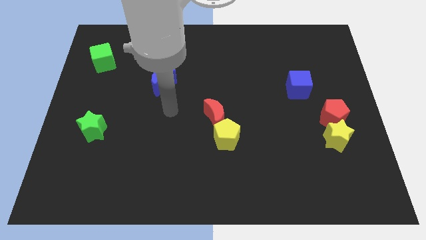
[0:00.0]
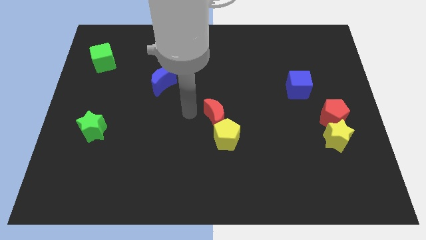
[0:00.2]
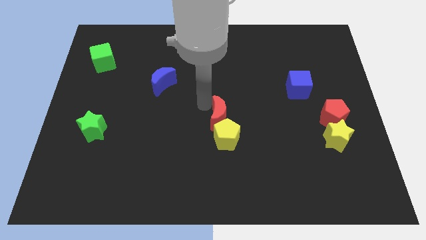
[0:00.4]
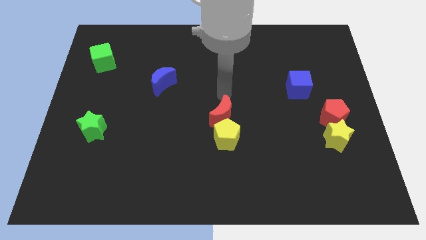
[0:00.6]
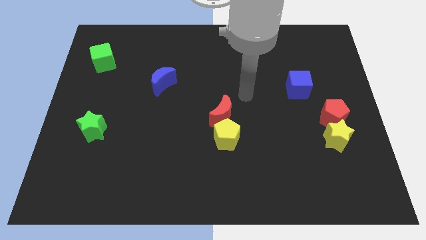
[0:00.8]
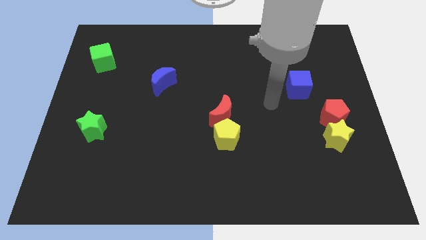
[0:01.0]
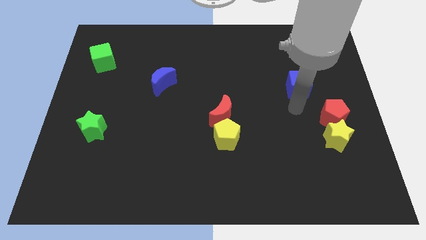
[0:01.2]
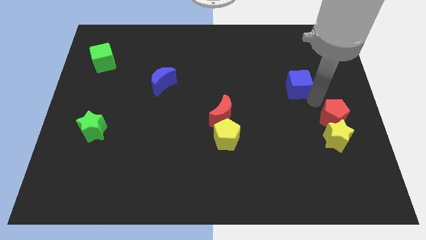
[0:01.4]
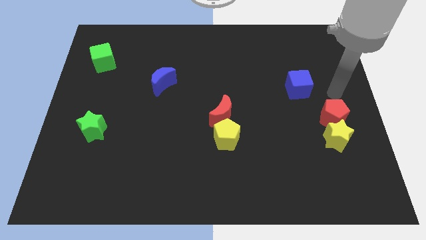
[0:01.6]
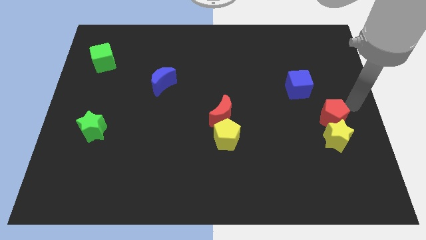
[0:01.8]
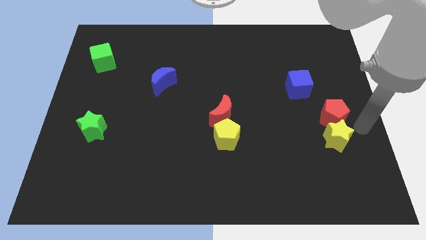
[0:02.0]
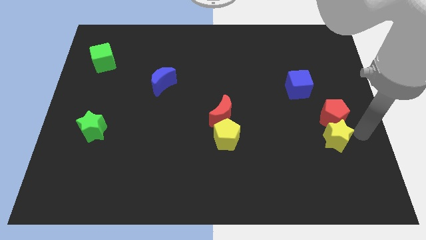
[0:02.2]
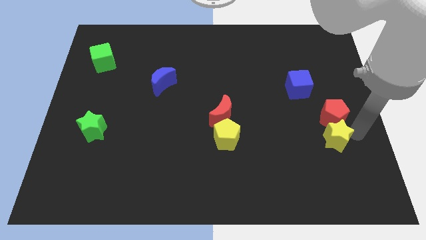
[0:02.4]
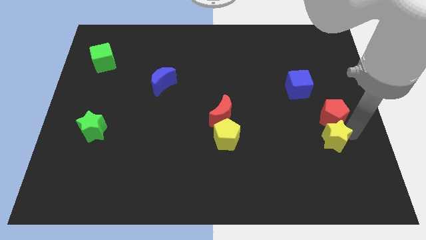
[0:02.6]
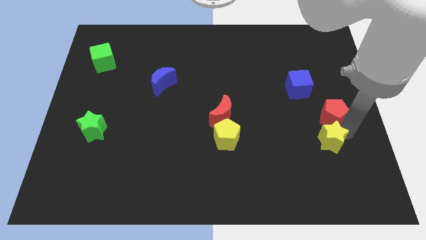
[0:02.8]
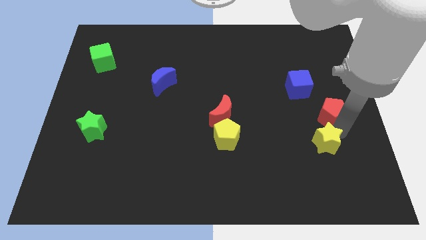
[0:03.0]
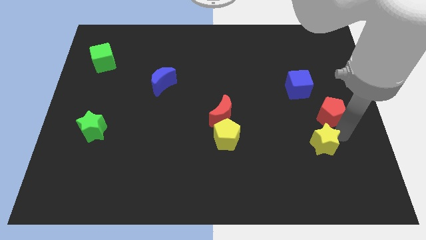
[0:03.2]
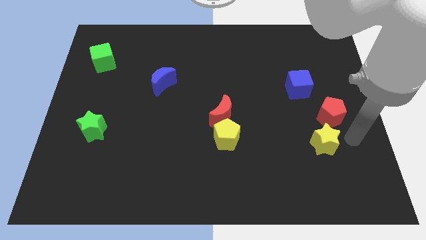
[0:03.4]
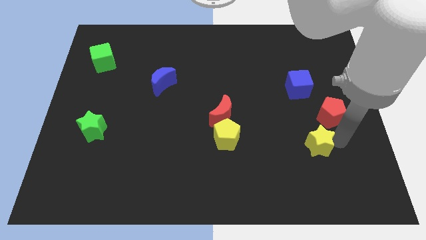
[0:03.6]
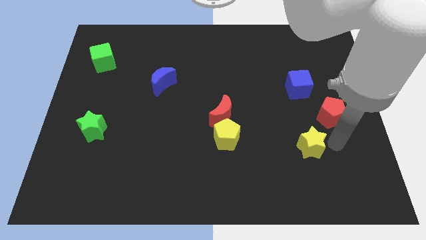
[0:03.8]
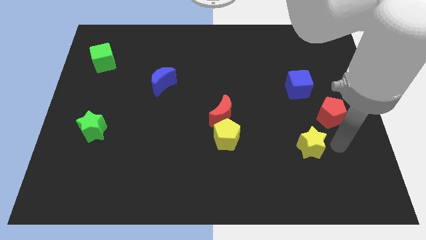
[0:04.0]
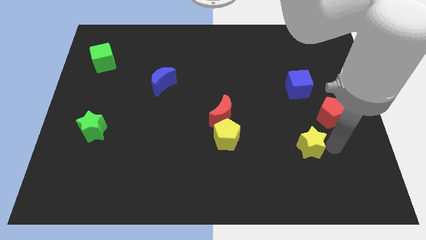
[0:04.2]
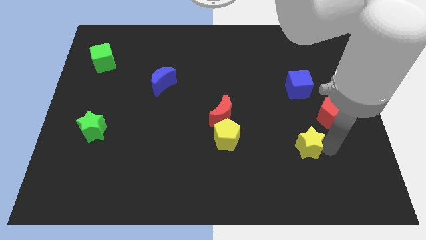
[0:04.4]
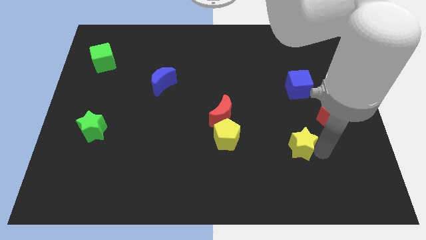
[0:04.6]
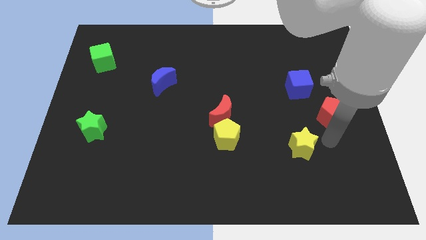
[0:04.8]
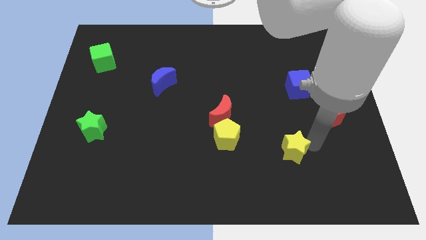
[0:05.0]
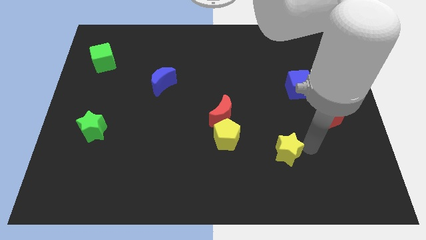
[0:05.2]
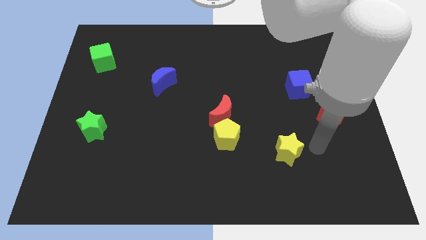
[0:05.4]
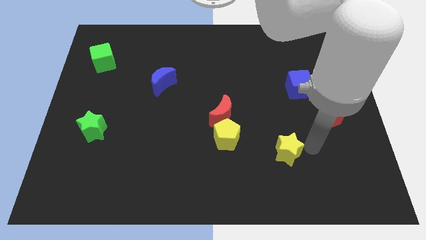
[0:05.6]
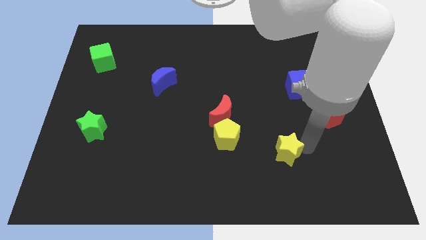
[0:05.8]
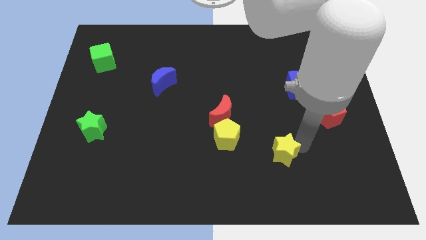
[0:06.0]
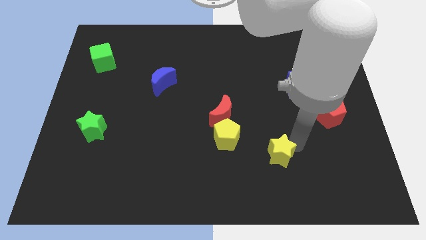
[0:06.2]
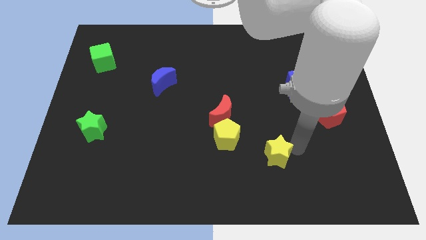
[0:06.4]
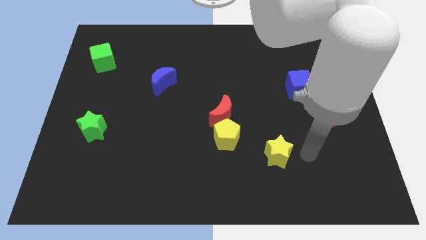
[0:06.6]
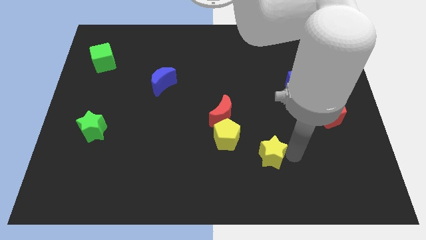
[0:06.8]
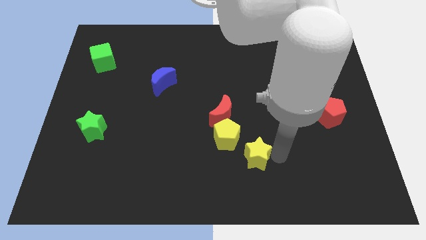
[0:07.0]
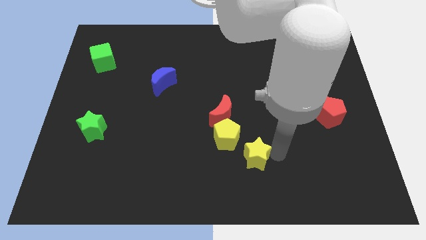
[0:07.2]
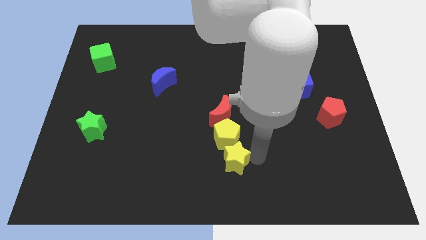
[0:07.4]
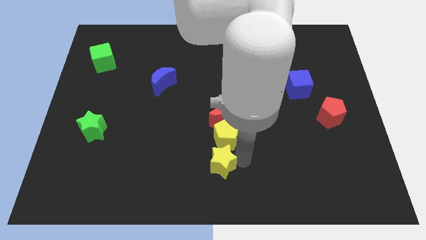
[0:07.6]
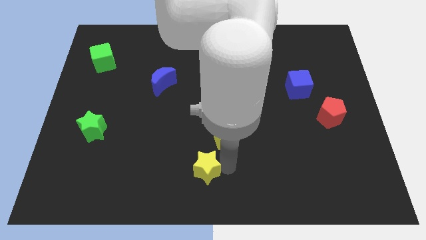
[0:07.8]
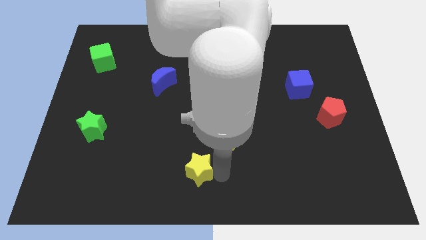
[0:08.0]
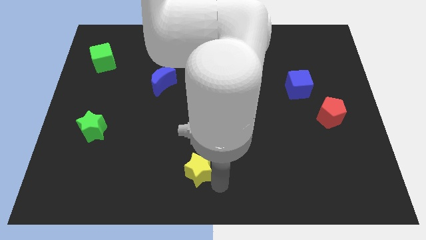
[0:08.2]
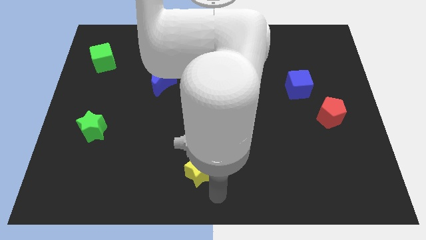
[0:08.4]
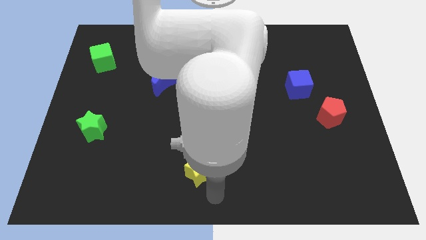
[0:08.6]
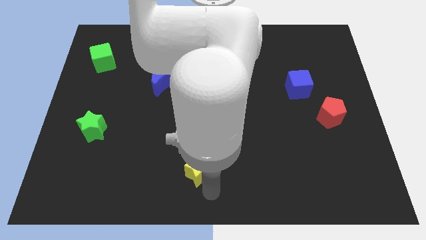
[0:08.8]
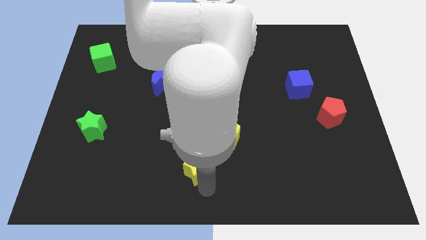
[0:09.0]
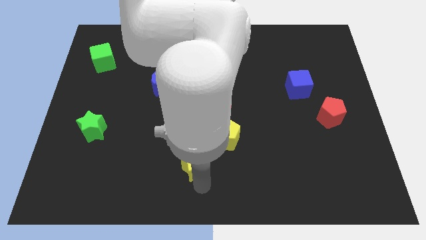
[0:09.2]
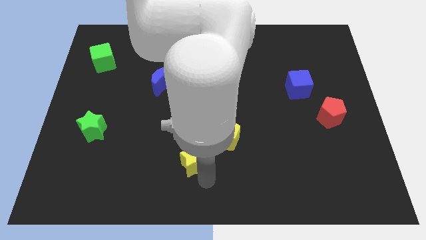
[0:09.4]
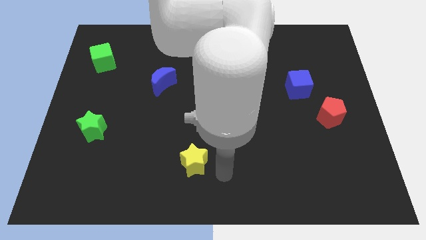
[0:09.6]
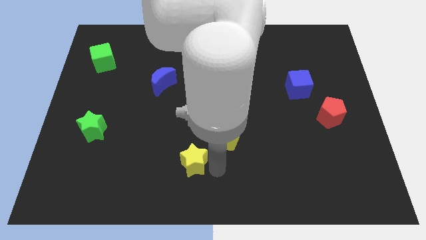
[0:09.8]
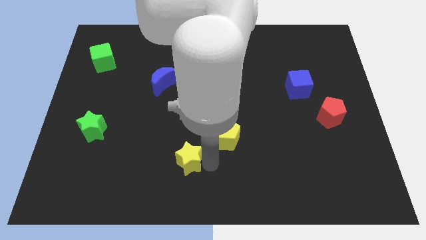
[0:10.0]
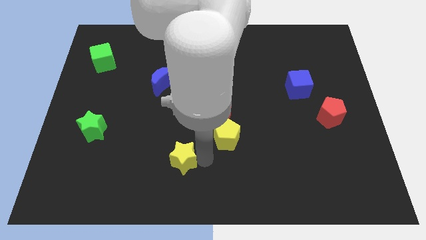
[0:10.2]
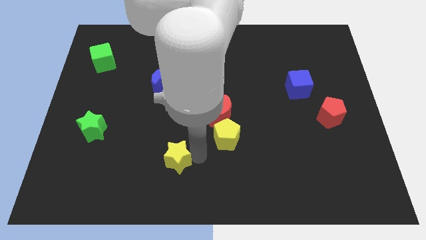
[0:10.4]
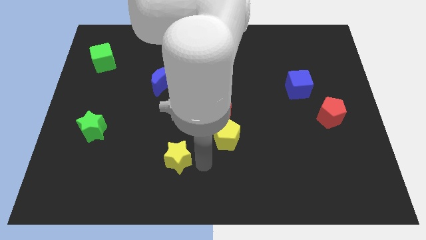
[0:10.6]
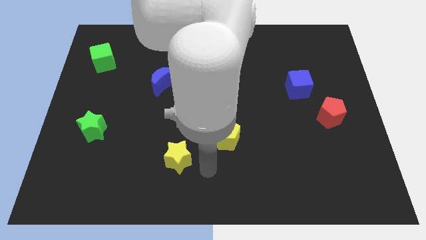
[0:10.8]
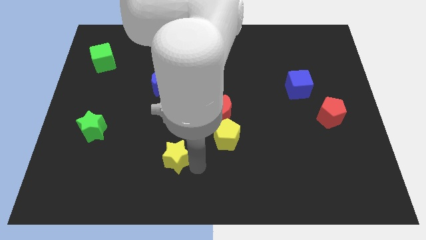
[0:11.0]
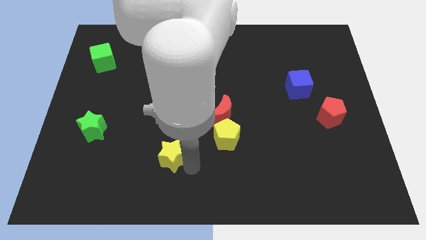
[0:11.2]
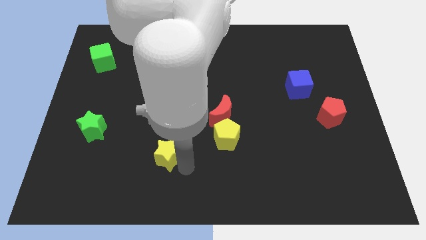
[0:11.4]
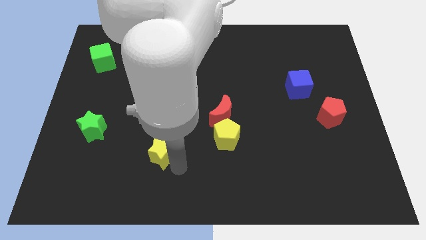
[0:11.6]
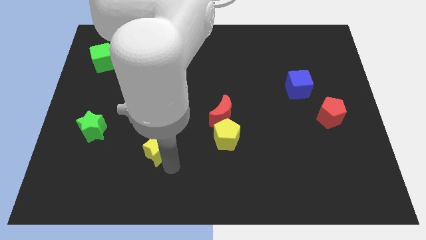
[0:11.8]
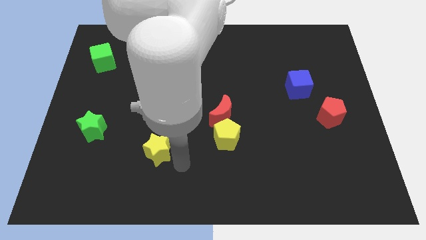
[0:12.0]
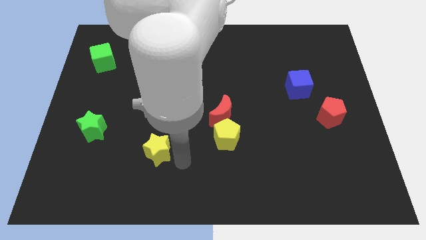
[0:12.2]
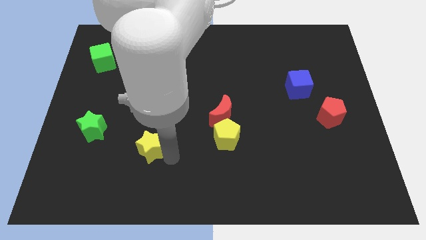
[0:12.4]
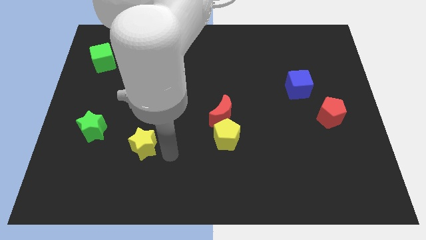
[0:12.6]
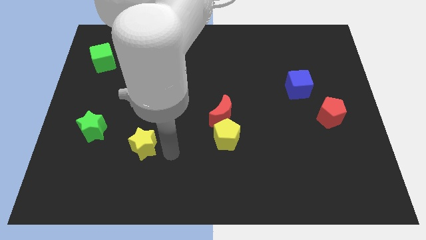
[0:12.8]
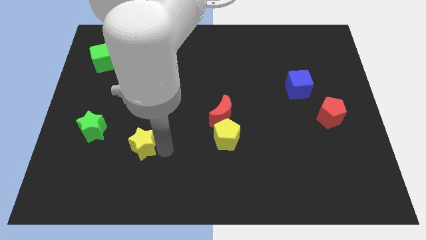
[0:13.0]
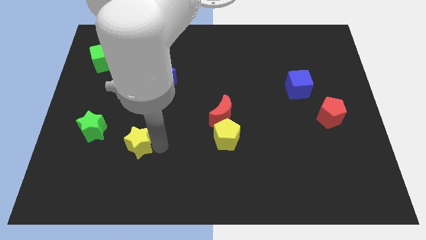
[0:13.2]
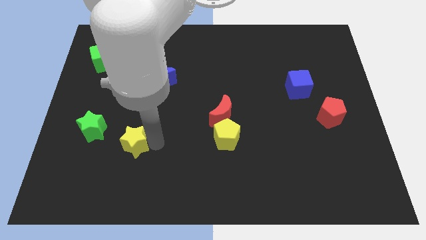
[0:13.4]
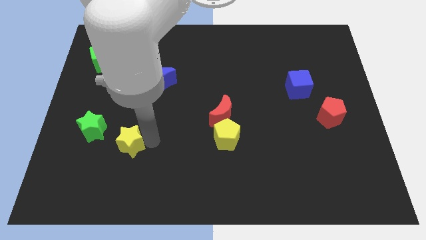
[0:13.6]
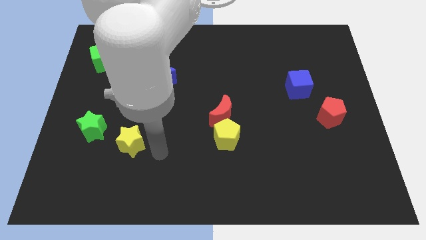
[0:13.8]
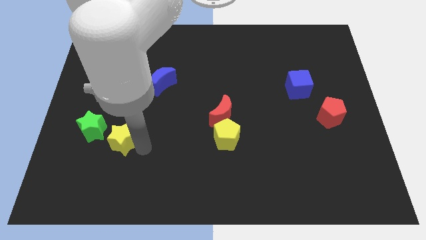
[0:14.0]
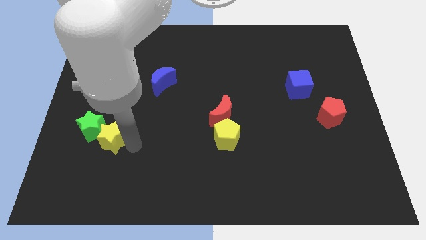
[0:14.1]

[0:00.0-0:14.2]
slide the yellow star close to the green star

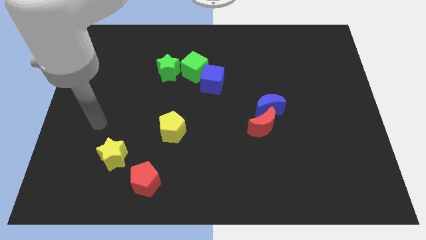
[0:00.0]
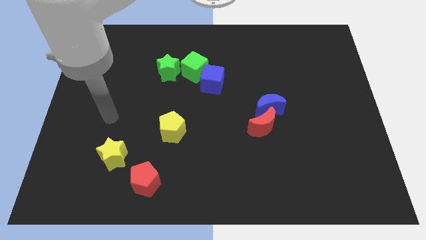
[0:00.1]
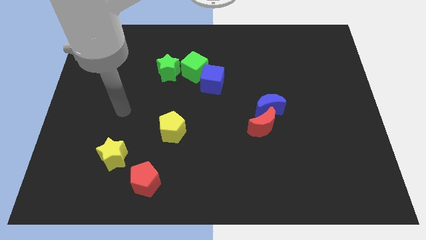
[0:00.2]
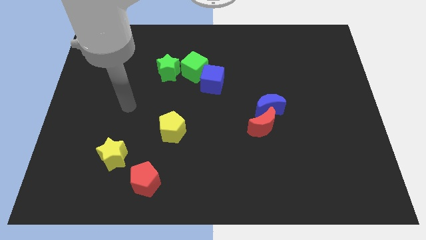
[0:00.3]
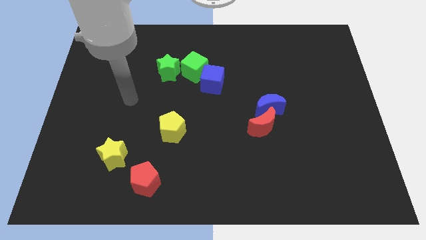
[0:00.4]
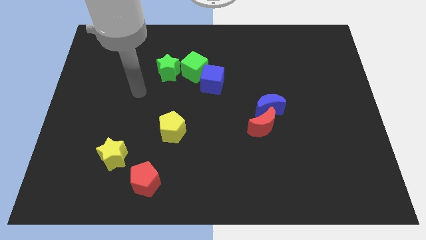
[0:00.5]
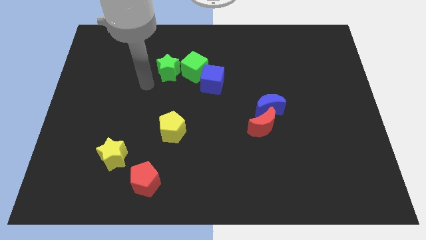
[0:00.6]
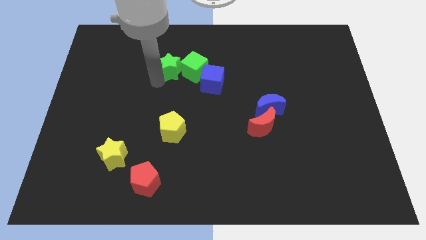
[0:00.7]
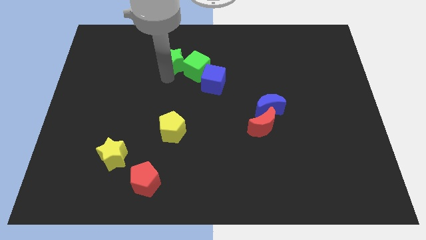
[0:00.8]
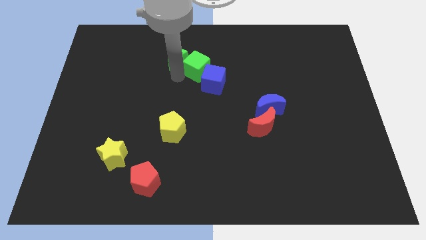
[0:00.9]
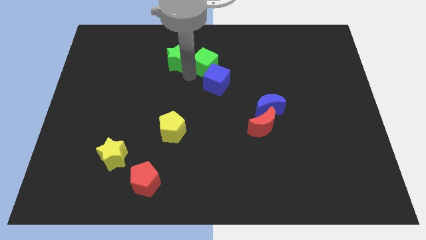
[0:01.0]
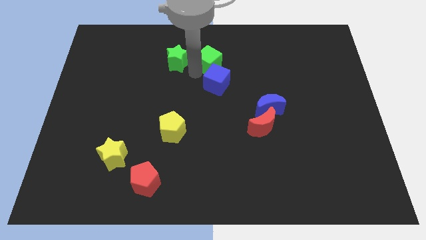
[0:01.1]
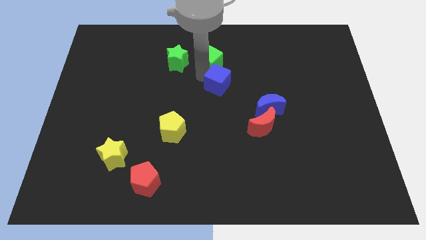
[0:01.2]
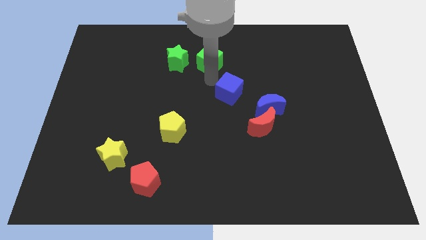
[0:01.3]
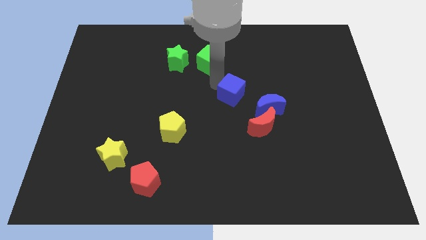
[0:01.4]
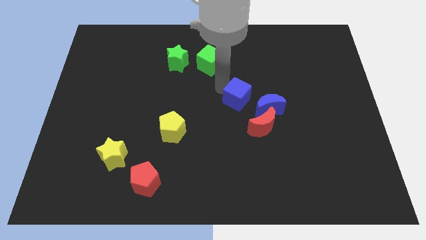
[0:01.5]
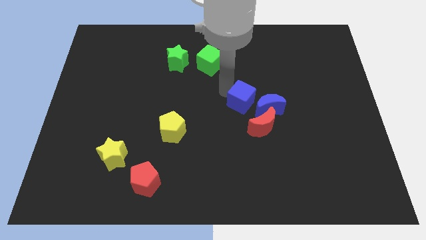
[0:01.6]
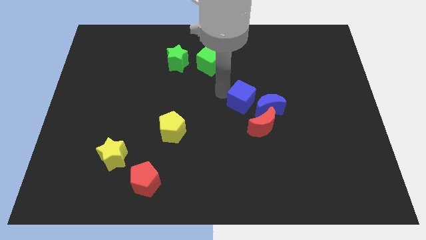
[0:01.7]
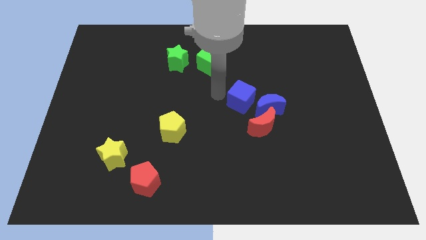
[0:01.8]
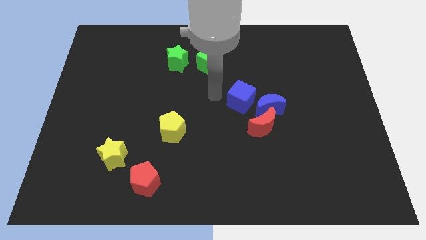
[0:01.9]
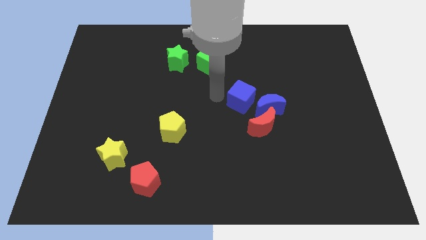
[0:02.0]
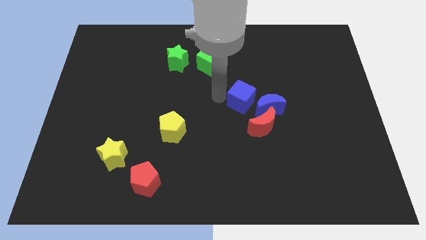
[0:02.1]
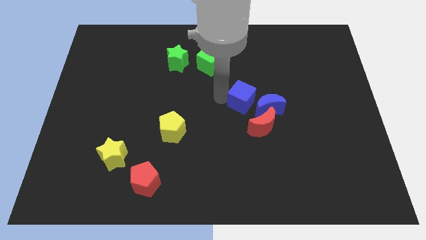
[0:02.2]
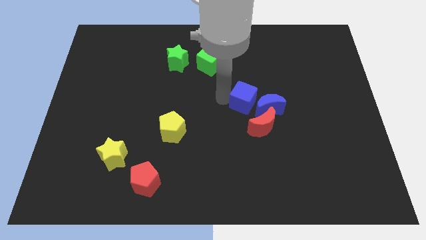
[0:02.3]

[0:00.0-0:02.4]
push the blue cube next to the blue moon
